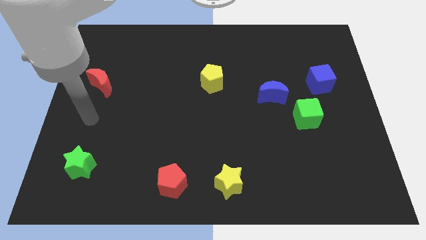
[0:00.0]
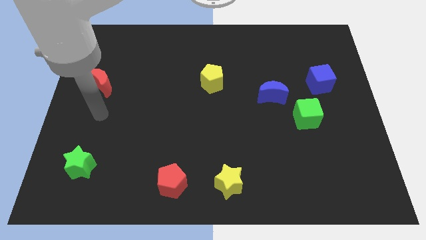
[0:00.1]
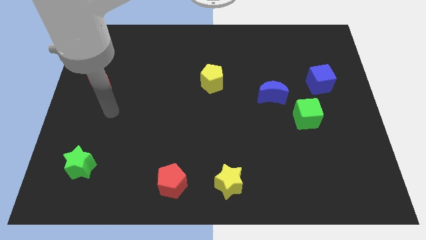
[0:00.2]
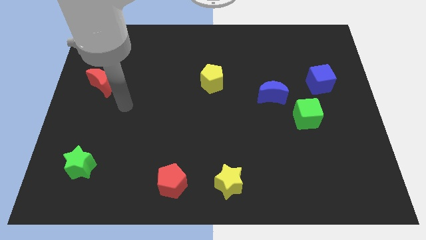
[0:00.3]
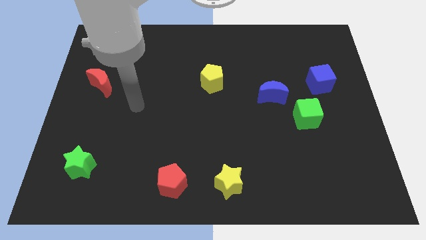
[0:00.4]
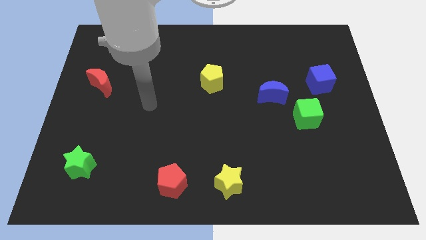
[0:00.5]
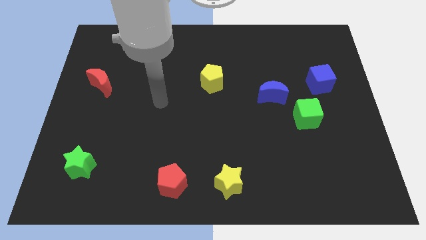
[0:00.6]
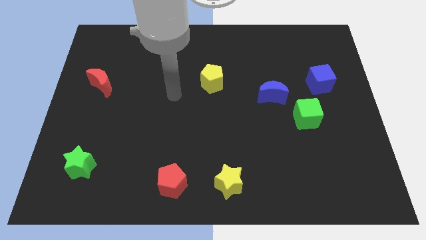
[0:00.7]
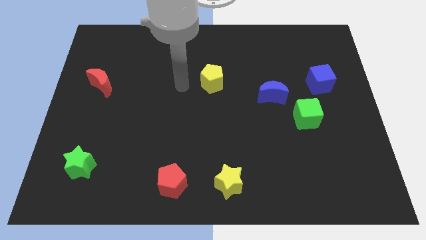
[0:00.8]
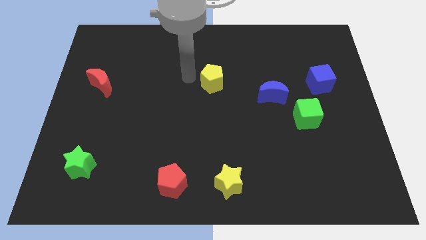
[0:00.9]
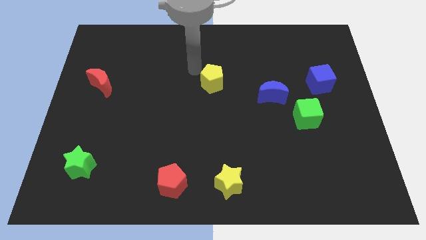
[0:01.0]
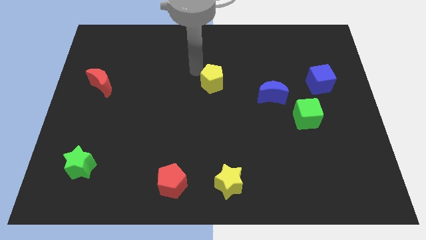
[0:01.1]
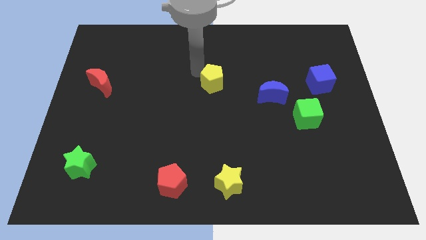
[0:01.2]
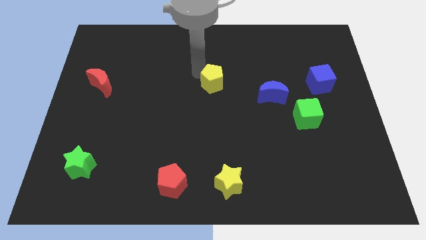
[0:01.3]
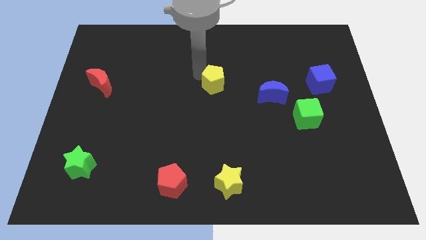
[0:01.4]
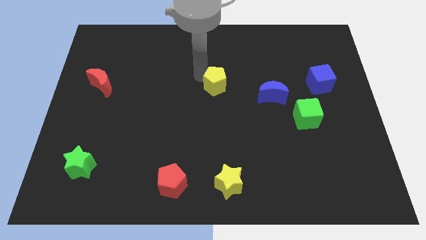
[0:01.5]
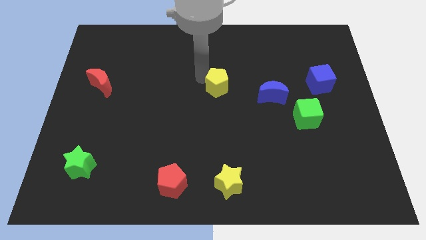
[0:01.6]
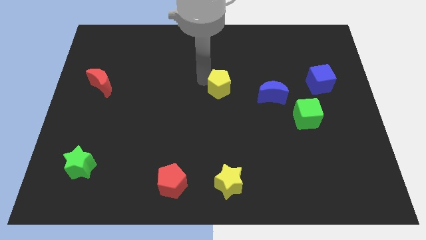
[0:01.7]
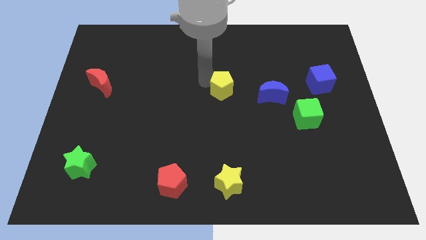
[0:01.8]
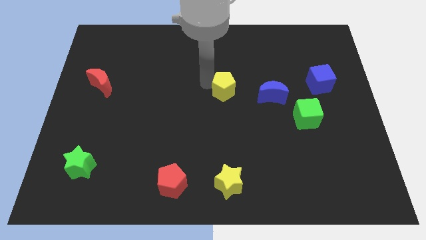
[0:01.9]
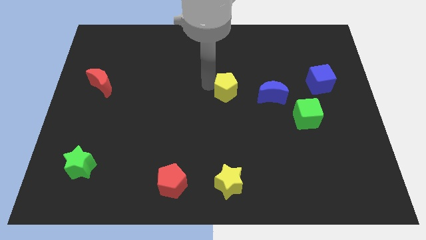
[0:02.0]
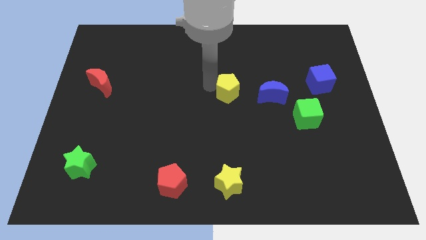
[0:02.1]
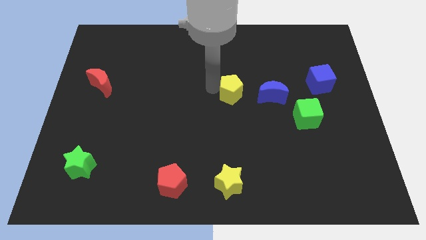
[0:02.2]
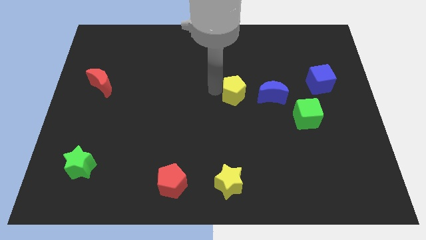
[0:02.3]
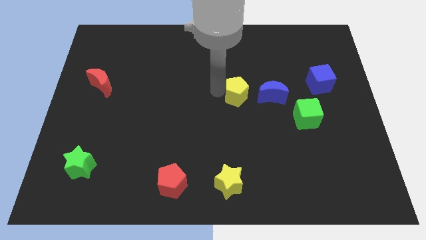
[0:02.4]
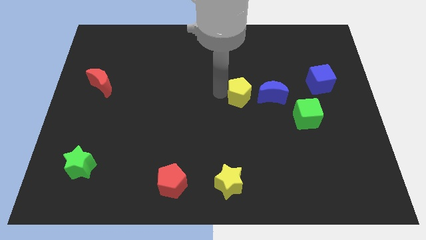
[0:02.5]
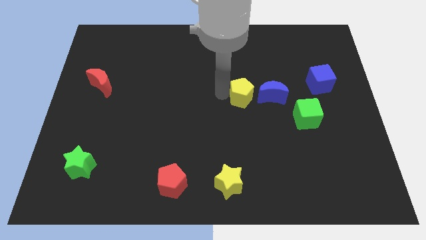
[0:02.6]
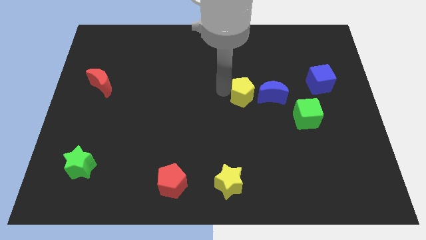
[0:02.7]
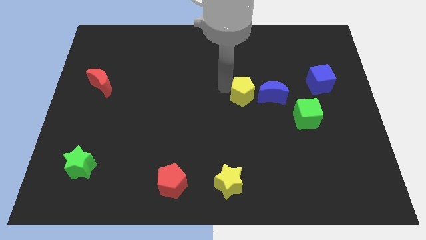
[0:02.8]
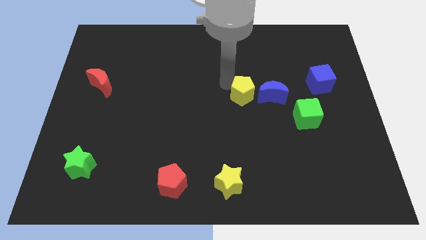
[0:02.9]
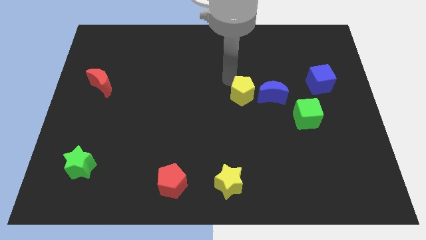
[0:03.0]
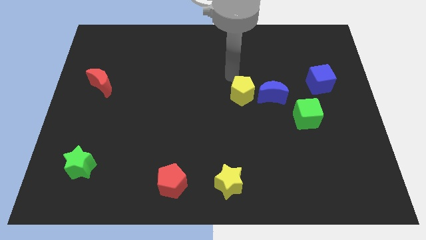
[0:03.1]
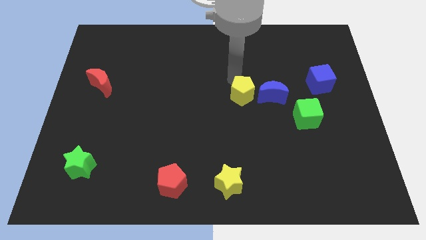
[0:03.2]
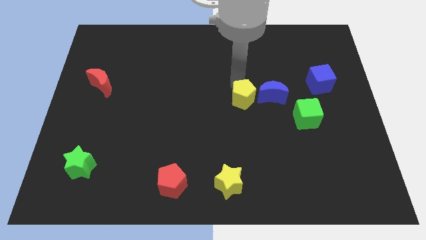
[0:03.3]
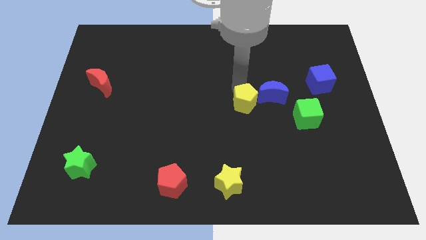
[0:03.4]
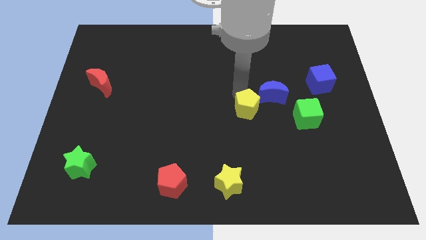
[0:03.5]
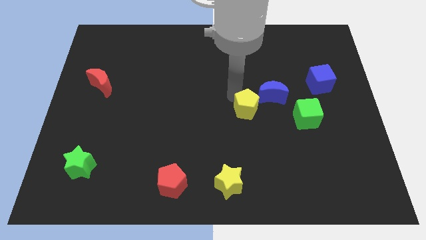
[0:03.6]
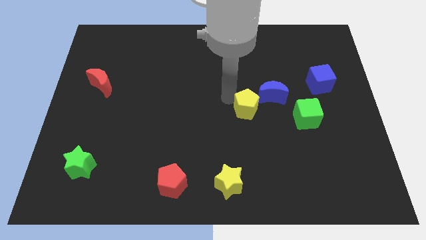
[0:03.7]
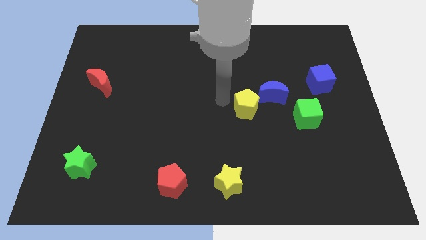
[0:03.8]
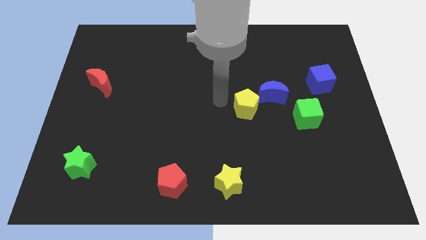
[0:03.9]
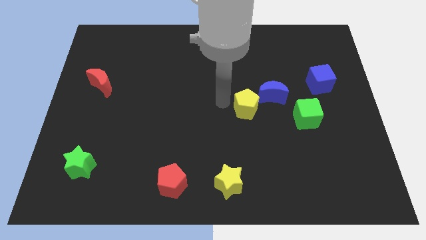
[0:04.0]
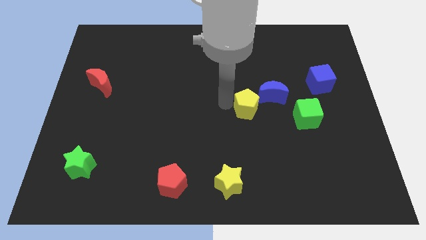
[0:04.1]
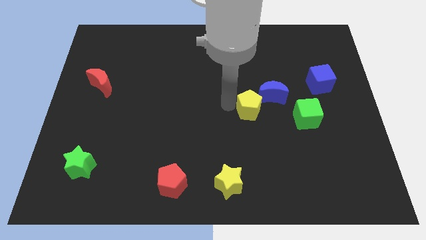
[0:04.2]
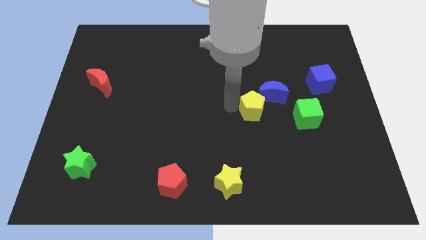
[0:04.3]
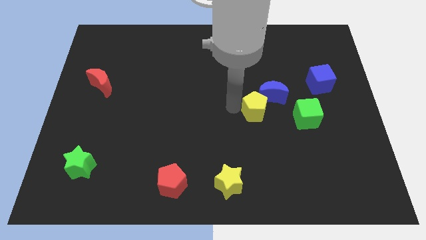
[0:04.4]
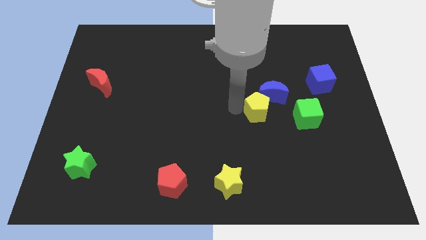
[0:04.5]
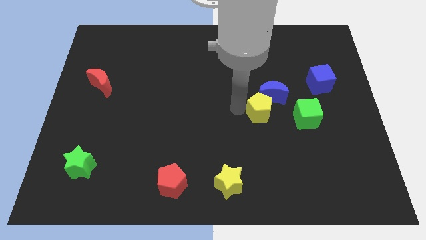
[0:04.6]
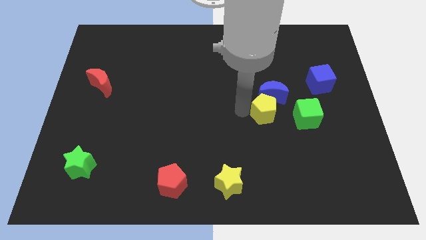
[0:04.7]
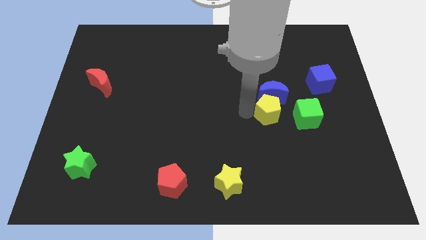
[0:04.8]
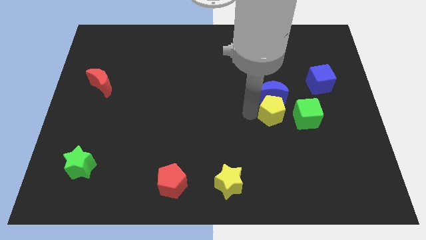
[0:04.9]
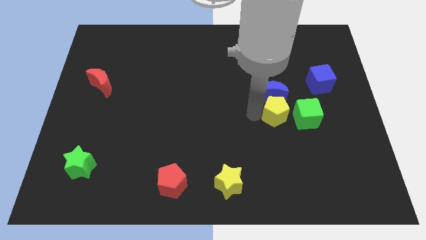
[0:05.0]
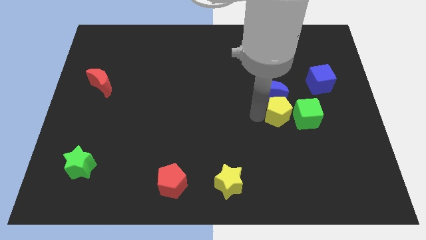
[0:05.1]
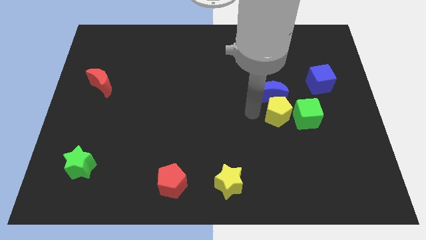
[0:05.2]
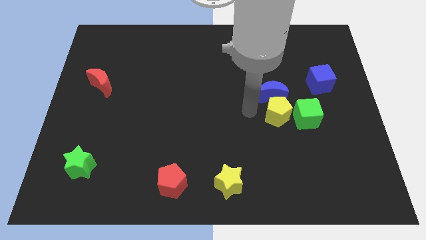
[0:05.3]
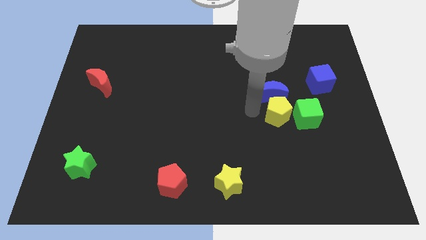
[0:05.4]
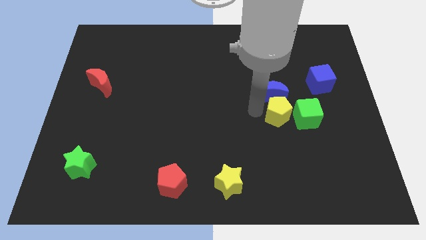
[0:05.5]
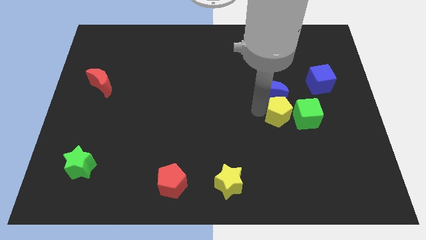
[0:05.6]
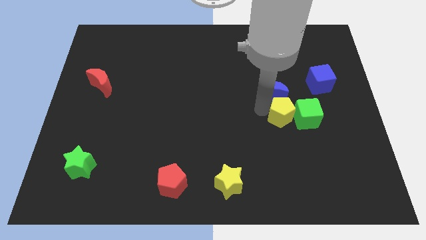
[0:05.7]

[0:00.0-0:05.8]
move the yellow pentagon to the green cube

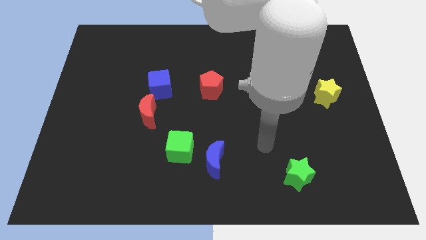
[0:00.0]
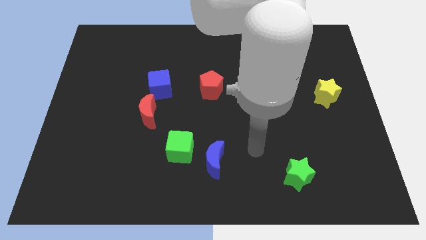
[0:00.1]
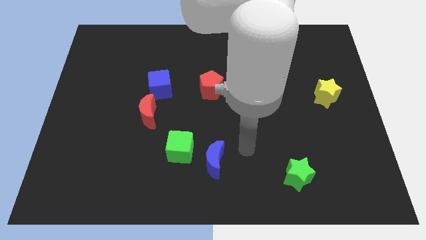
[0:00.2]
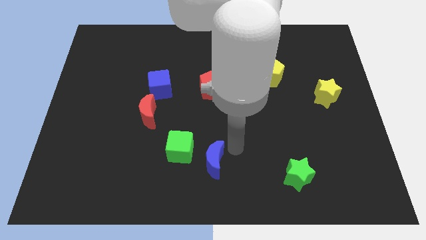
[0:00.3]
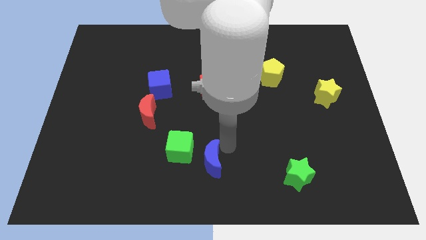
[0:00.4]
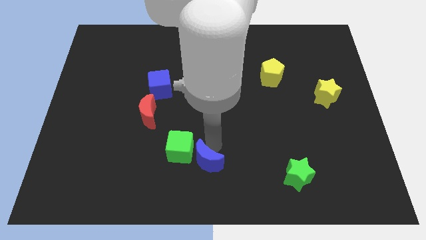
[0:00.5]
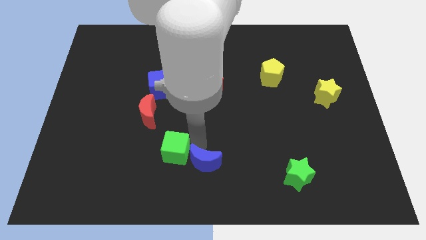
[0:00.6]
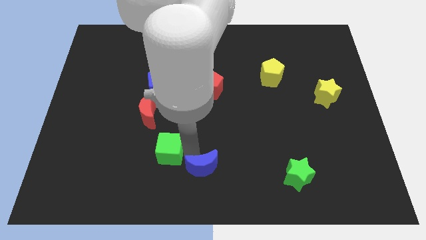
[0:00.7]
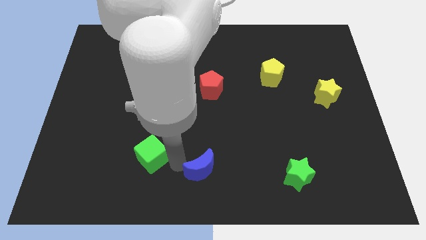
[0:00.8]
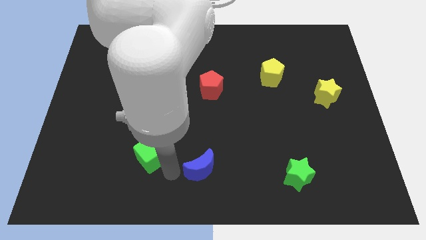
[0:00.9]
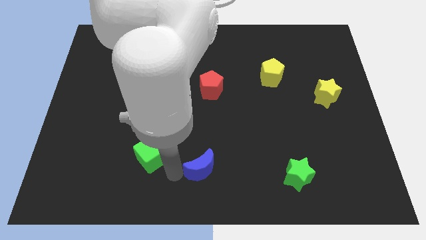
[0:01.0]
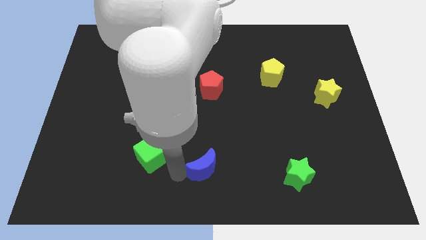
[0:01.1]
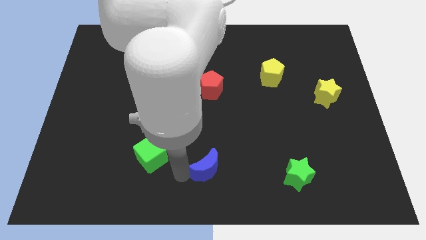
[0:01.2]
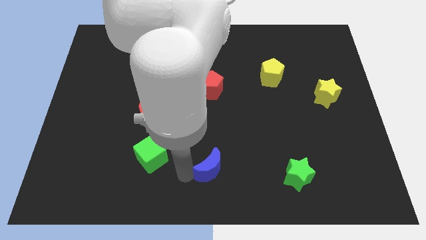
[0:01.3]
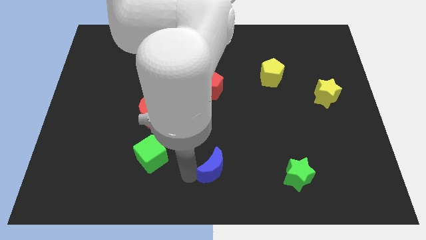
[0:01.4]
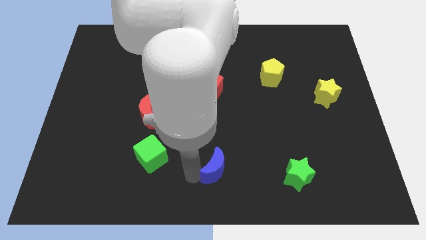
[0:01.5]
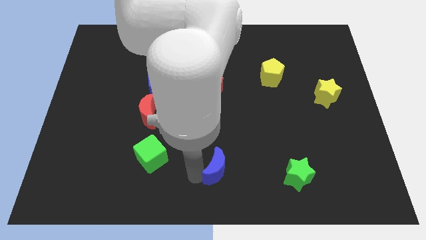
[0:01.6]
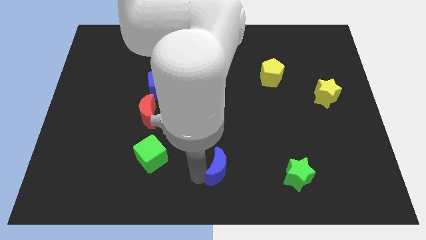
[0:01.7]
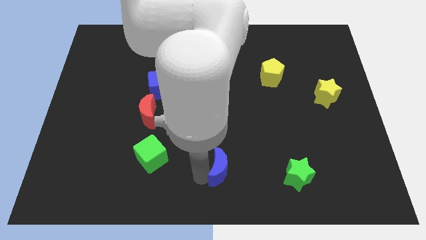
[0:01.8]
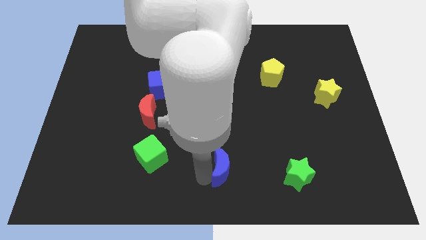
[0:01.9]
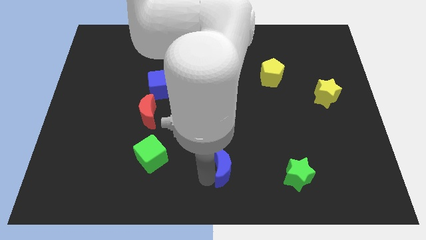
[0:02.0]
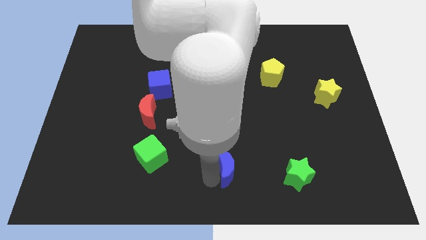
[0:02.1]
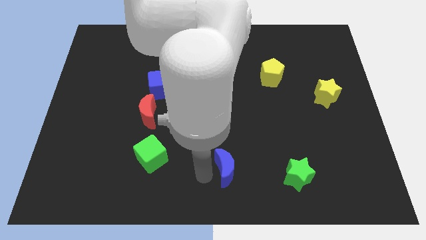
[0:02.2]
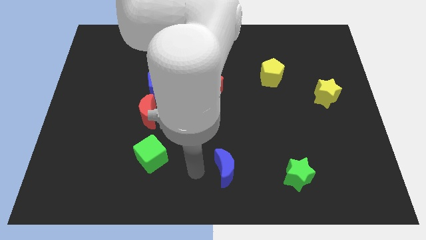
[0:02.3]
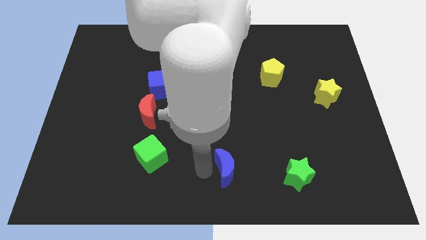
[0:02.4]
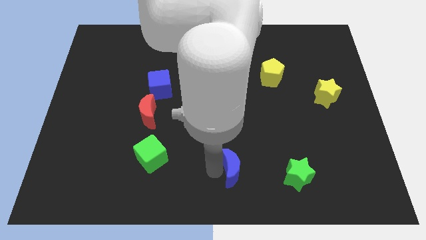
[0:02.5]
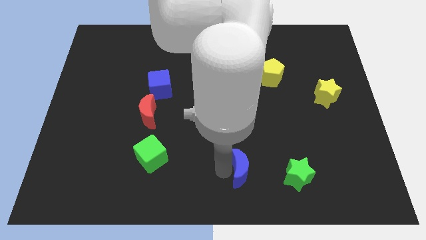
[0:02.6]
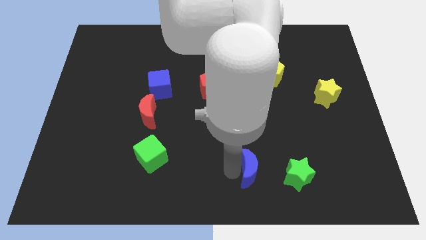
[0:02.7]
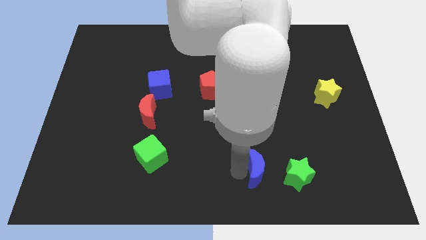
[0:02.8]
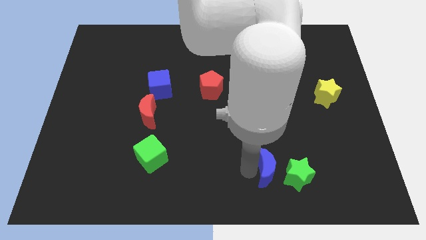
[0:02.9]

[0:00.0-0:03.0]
move the blue moon towards the green star
